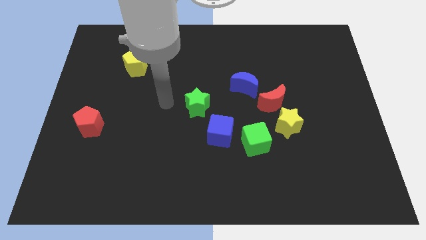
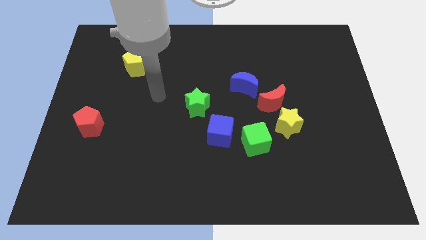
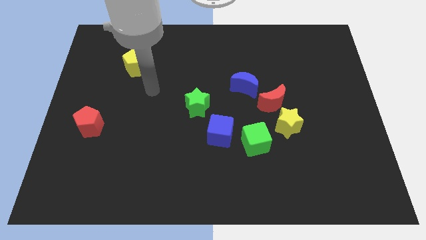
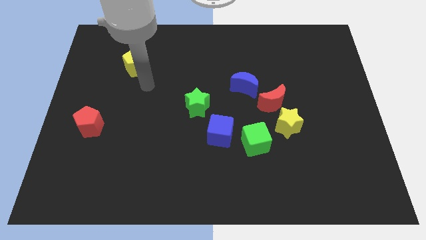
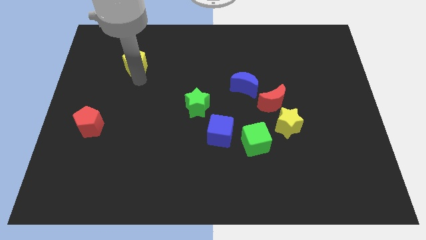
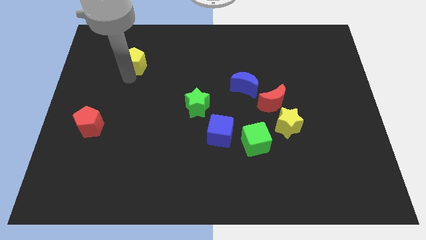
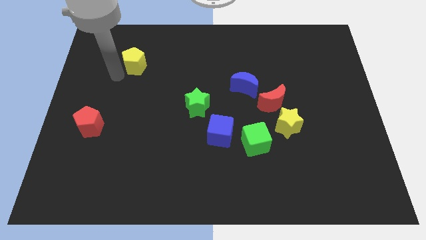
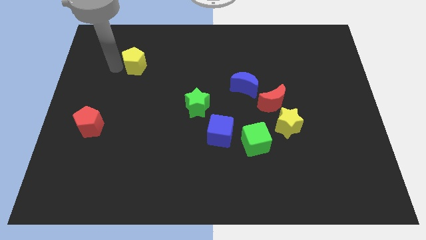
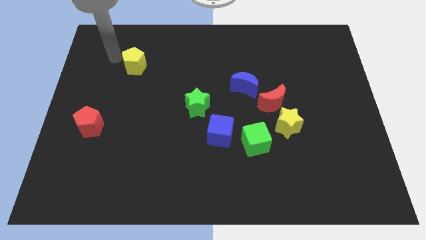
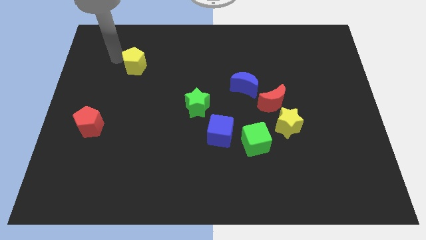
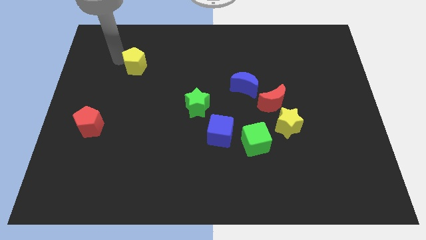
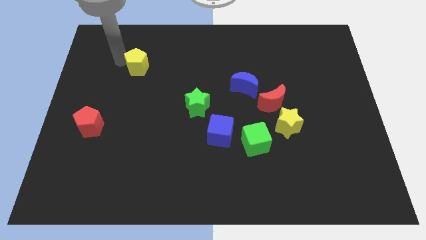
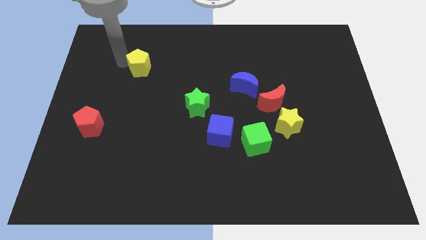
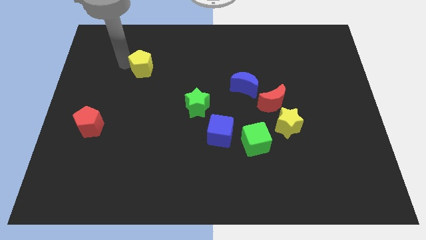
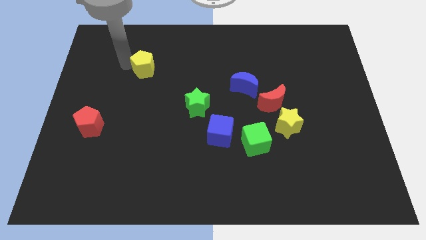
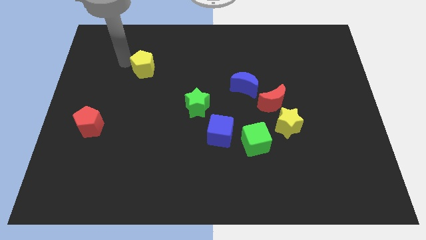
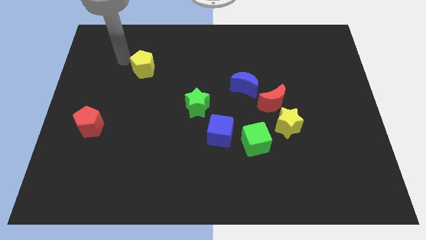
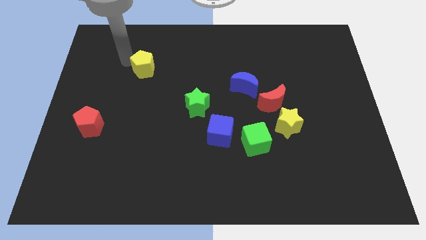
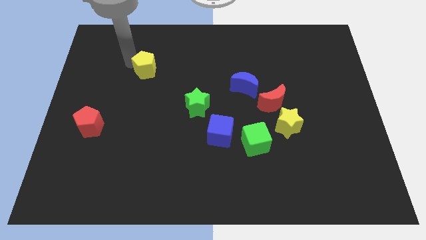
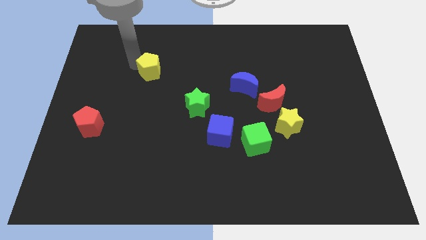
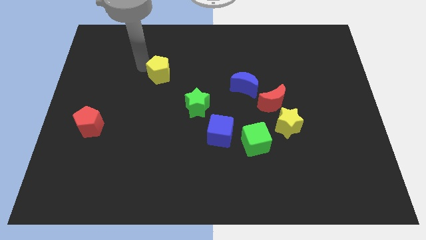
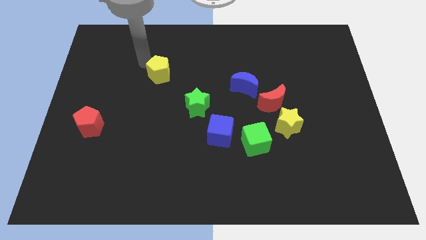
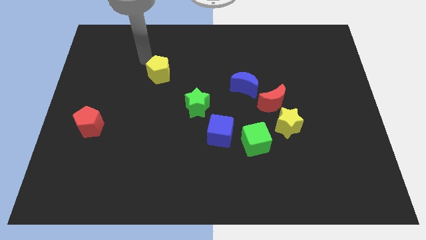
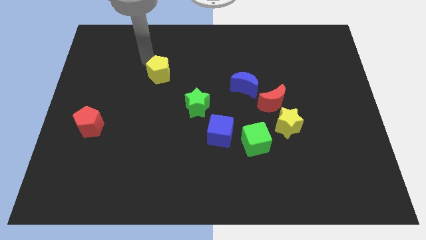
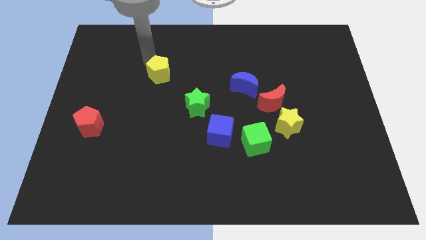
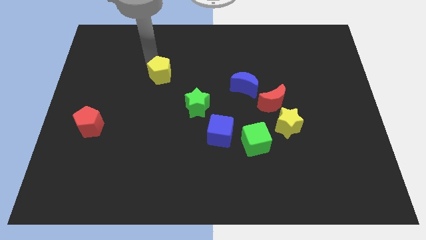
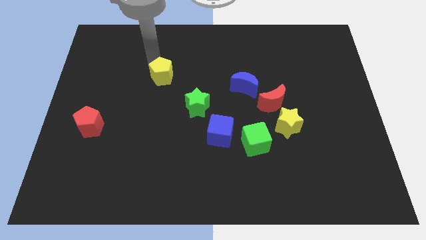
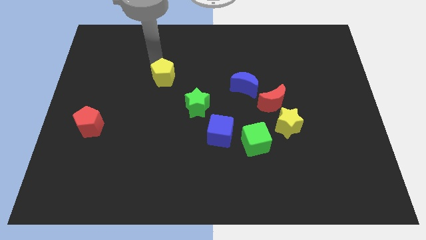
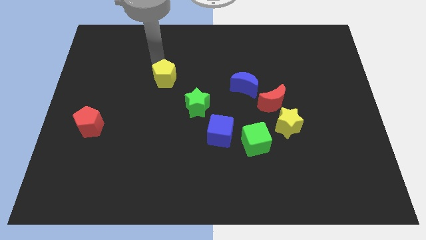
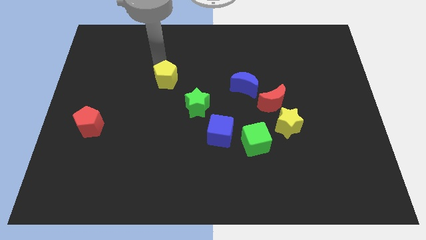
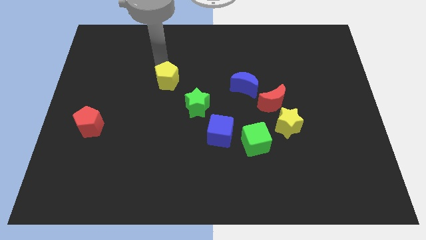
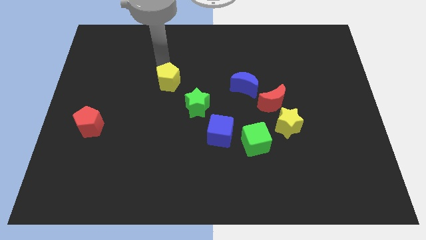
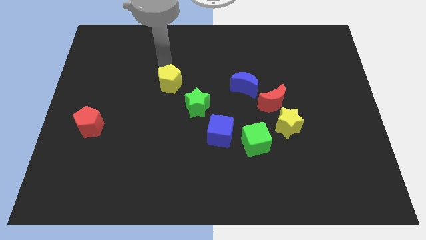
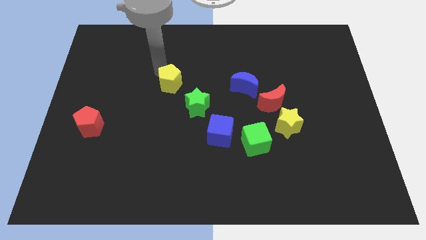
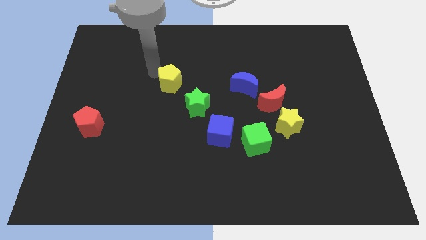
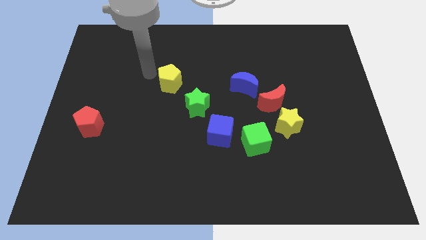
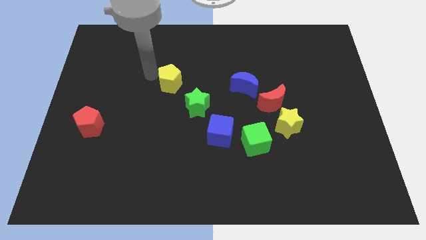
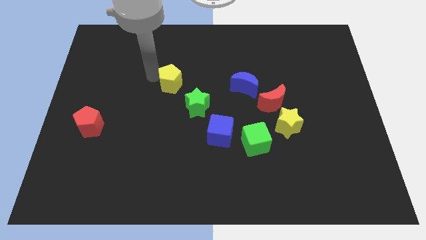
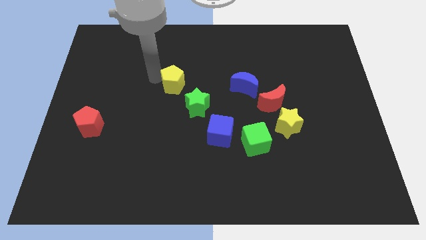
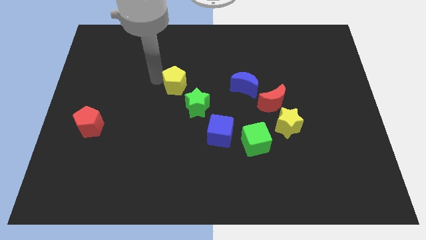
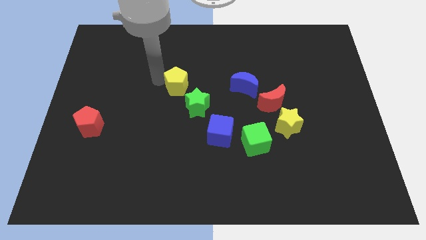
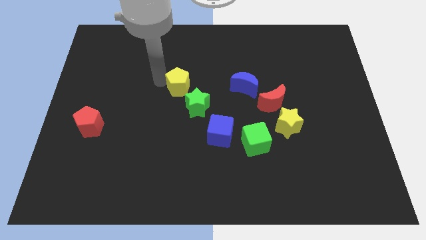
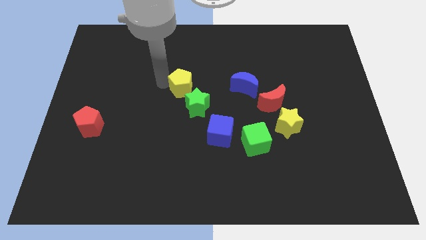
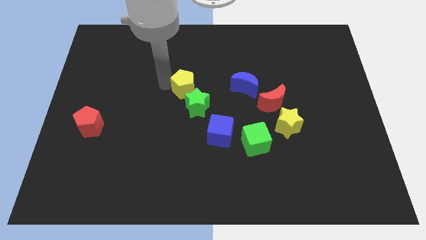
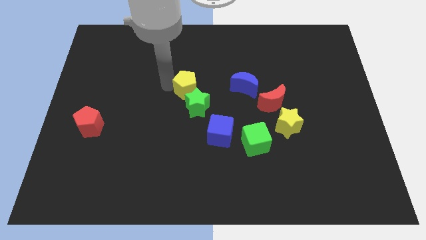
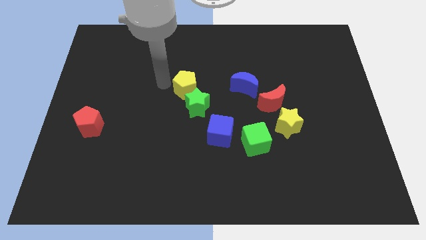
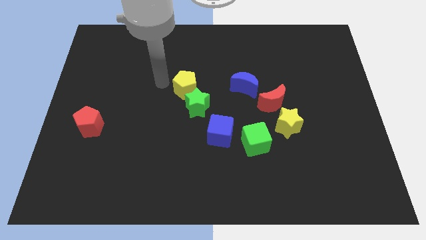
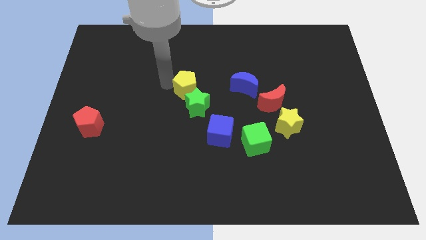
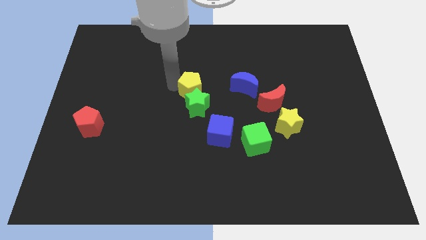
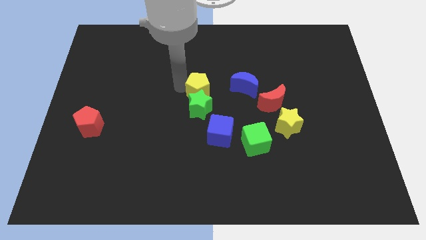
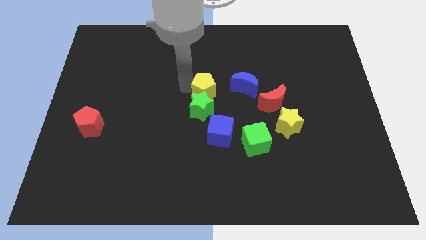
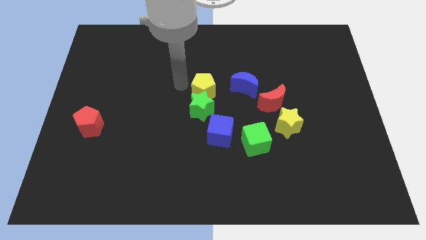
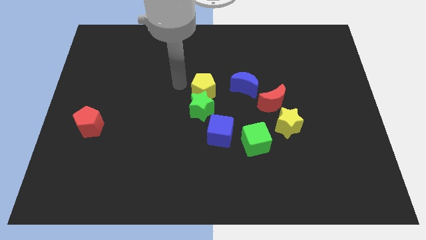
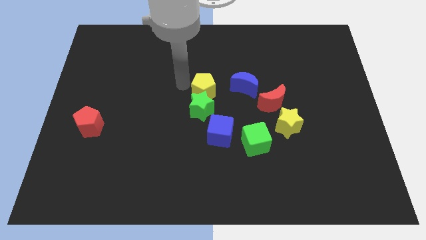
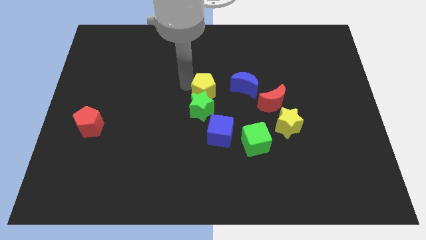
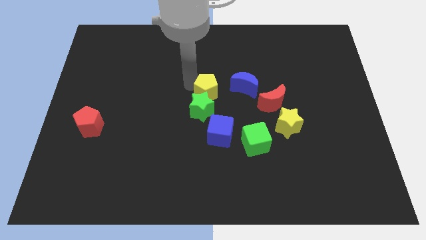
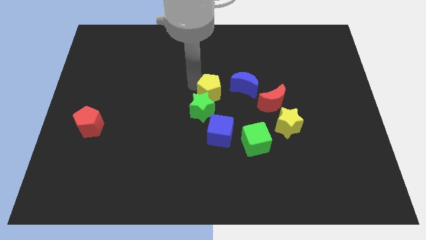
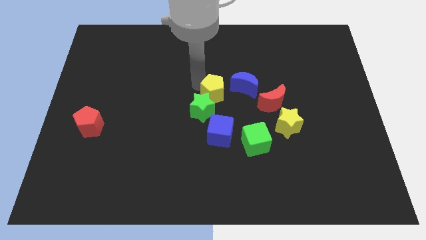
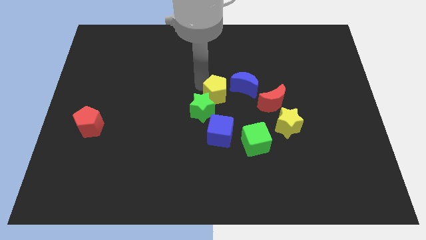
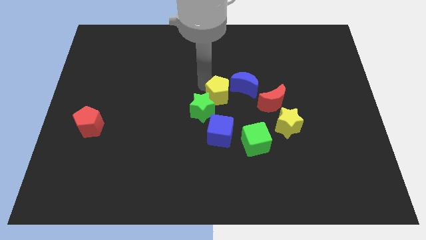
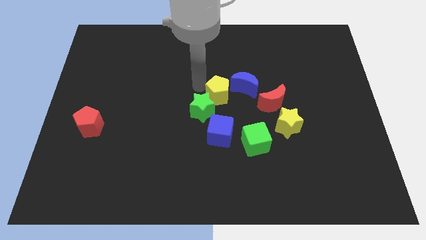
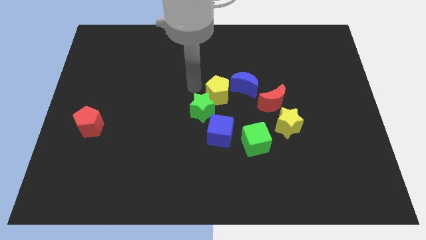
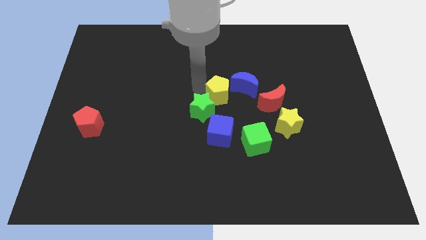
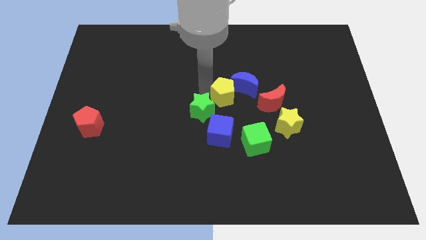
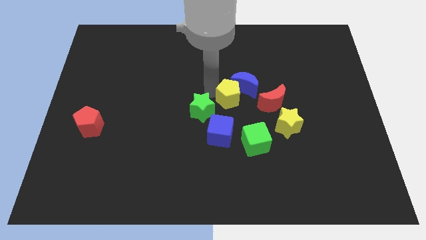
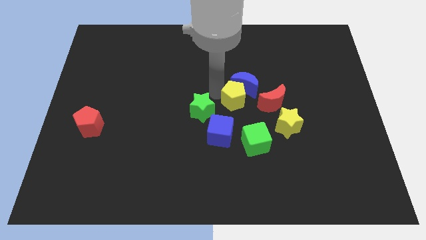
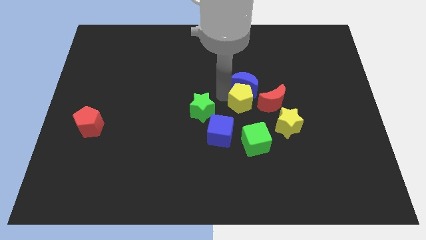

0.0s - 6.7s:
move the yellow pentagon to the top left of the yellow star

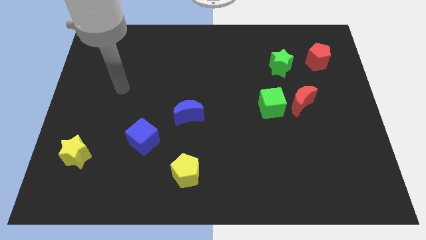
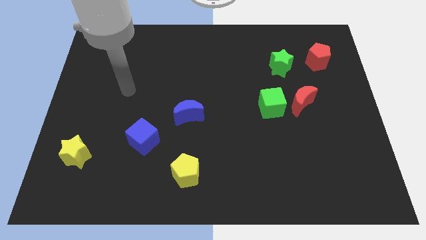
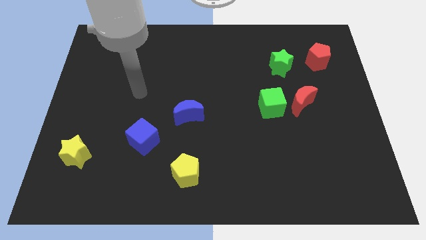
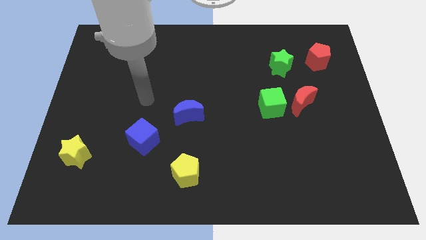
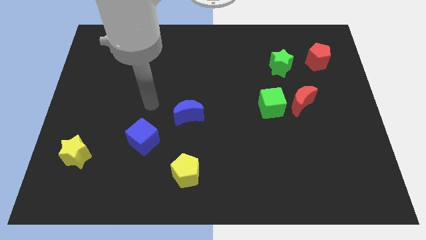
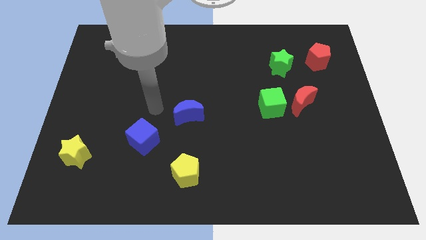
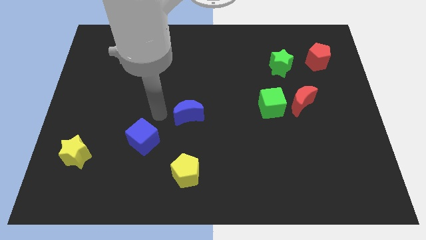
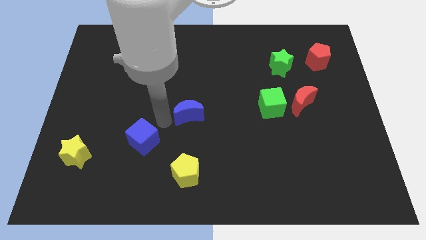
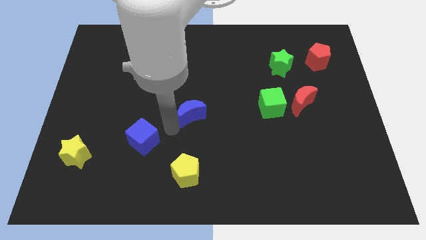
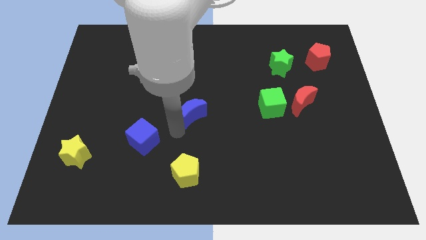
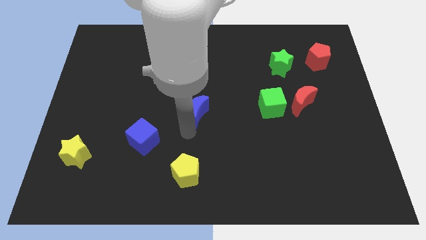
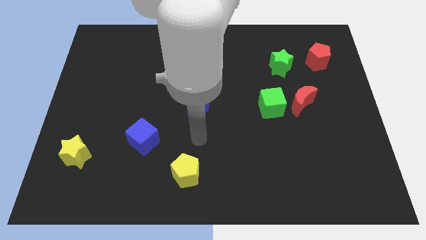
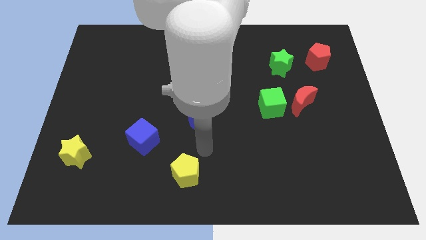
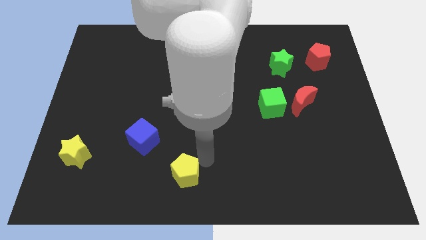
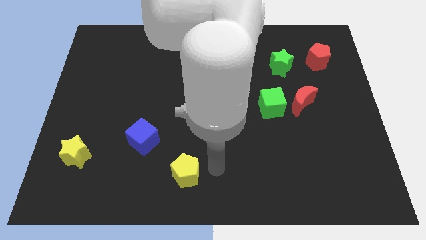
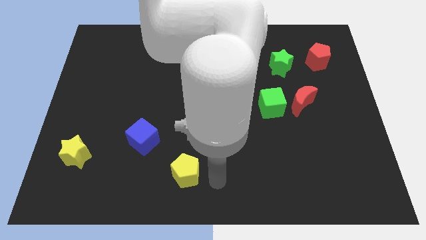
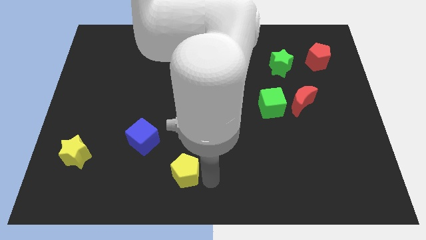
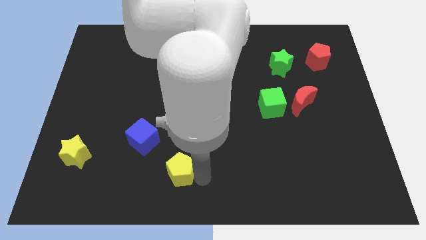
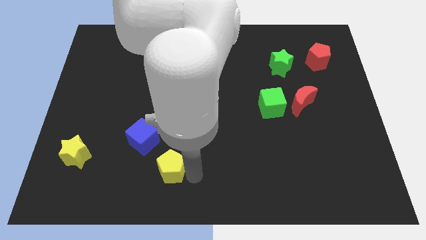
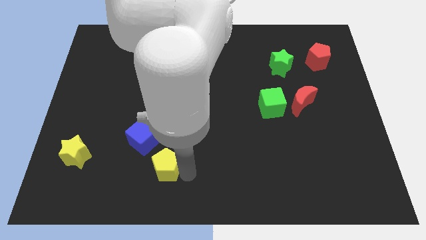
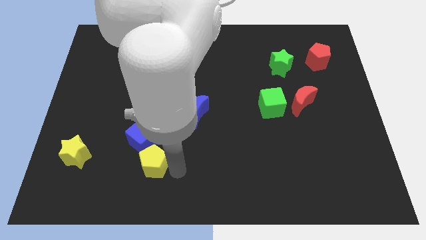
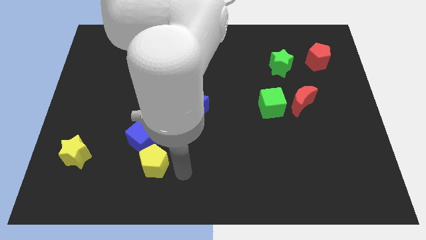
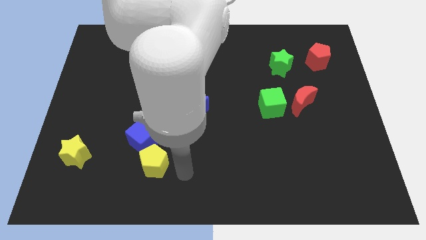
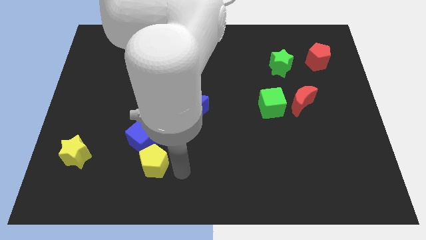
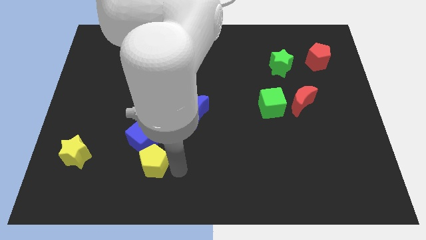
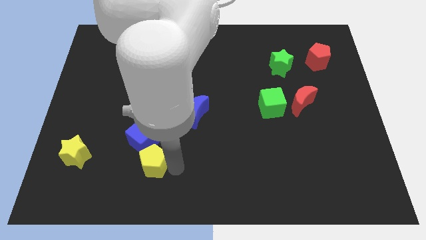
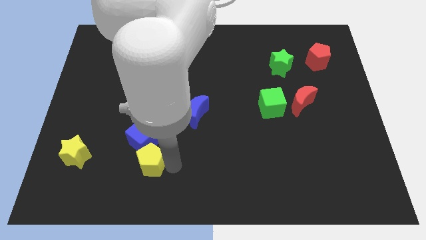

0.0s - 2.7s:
move the yellow pentagon to the right of the yellow star
